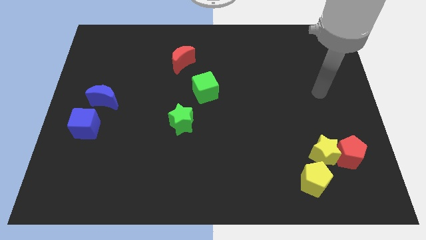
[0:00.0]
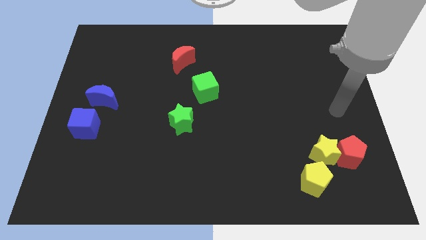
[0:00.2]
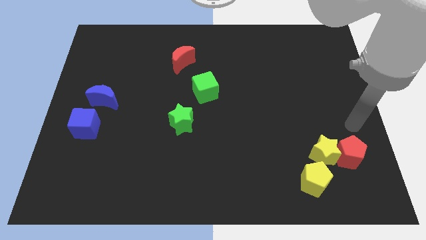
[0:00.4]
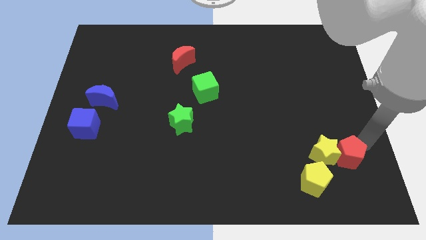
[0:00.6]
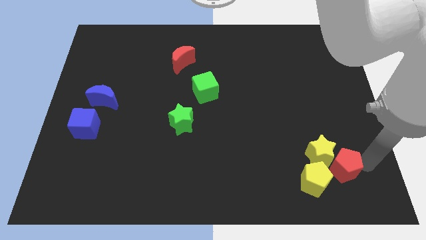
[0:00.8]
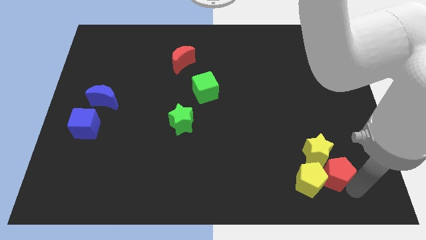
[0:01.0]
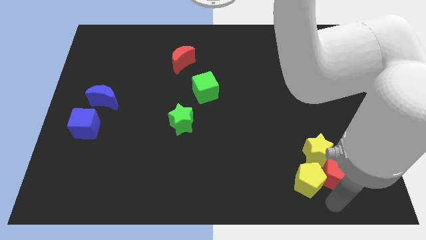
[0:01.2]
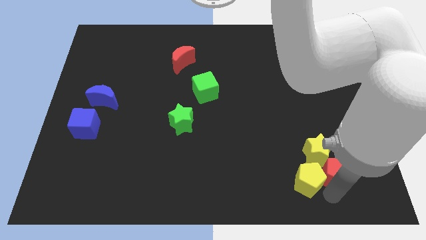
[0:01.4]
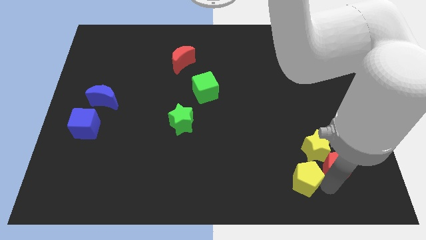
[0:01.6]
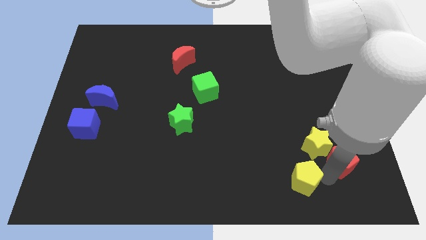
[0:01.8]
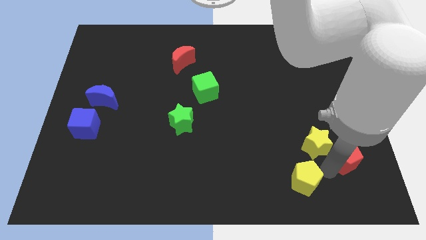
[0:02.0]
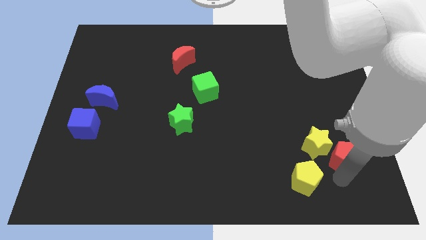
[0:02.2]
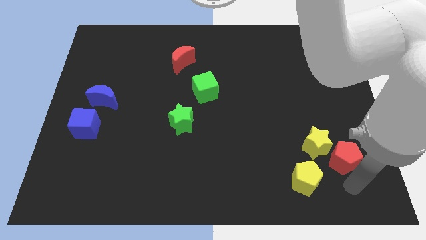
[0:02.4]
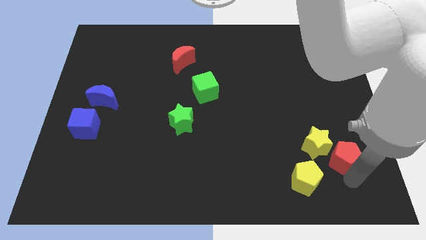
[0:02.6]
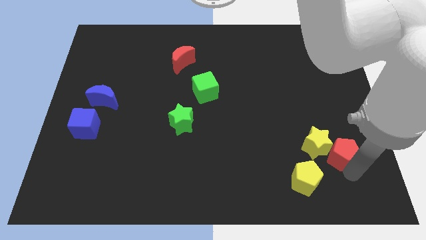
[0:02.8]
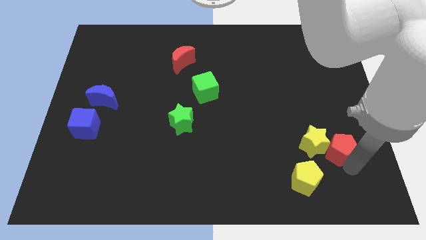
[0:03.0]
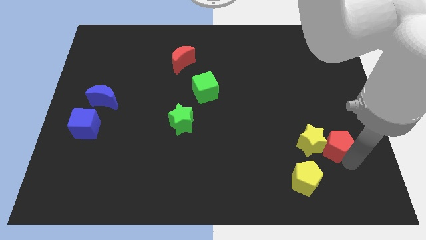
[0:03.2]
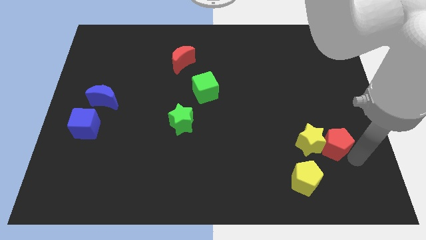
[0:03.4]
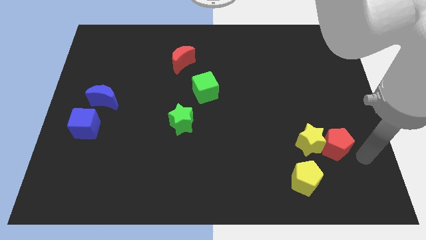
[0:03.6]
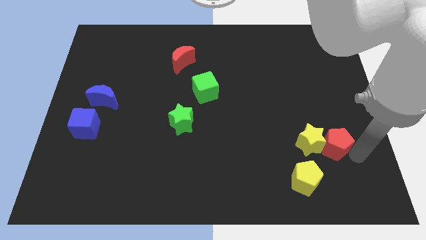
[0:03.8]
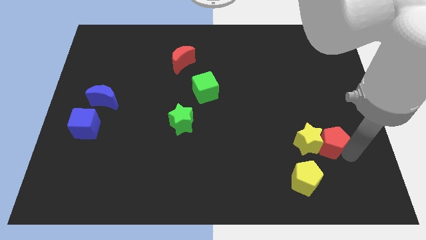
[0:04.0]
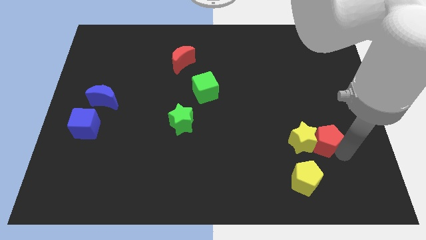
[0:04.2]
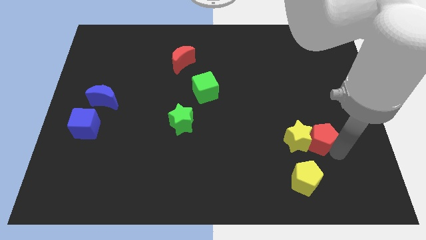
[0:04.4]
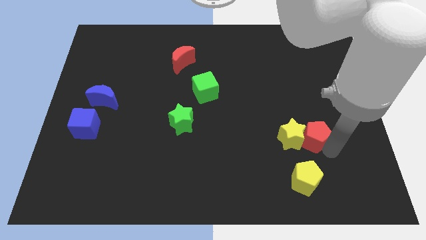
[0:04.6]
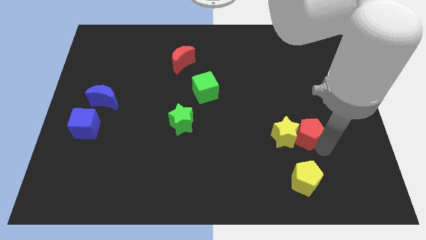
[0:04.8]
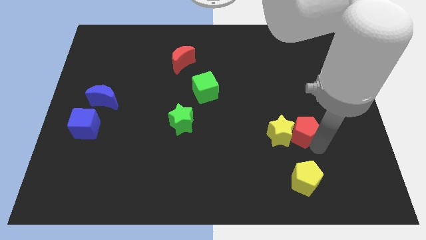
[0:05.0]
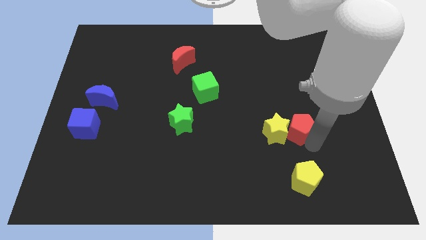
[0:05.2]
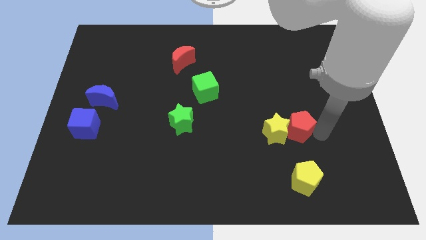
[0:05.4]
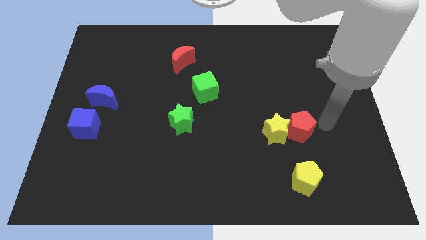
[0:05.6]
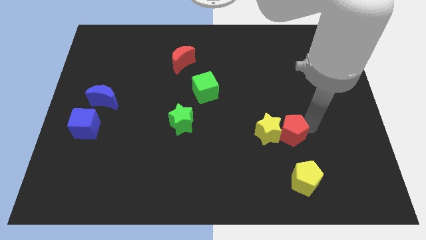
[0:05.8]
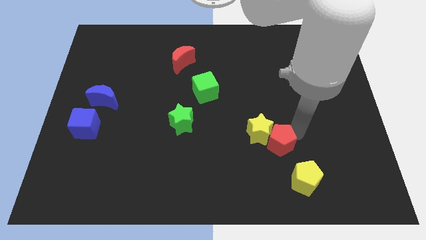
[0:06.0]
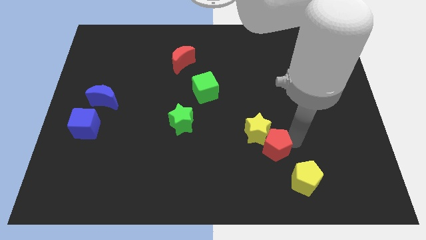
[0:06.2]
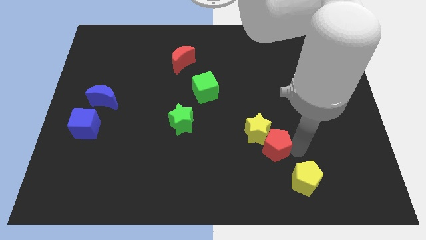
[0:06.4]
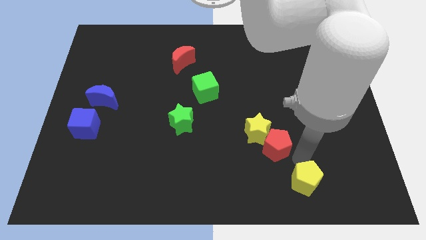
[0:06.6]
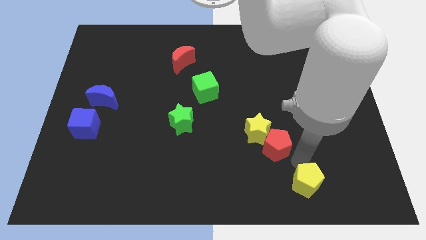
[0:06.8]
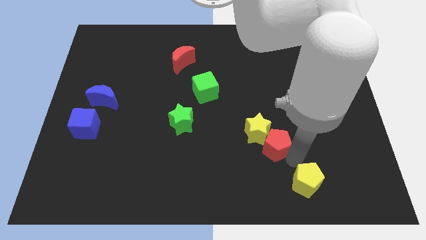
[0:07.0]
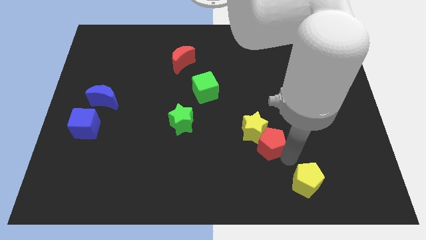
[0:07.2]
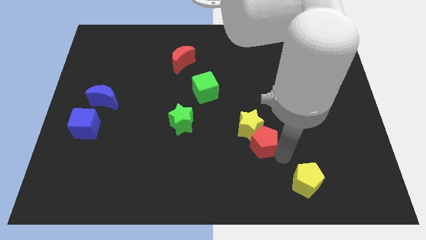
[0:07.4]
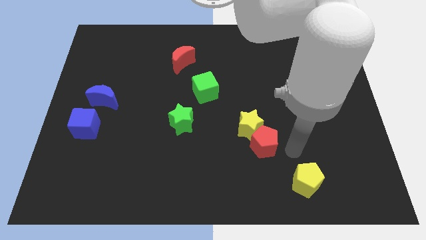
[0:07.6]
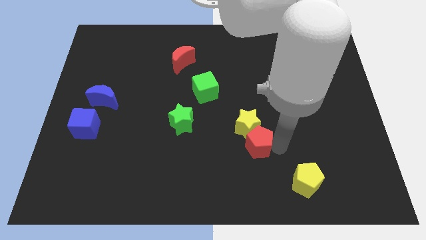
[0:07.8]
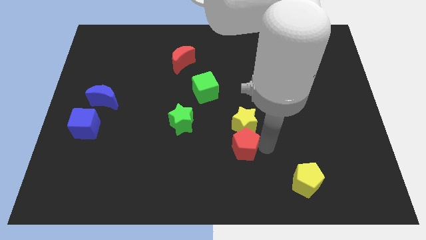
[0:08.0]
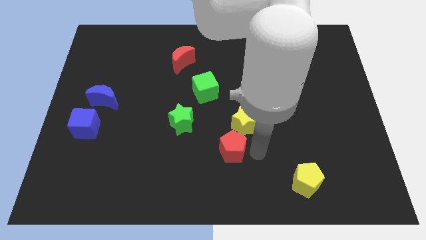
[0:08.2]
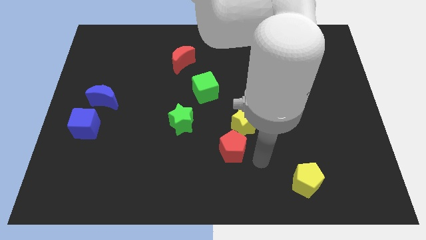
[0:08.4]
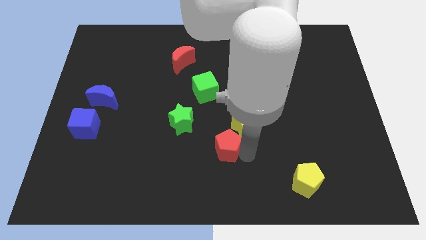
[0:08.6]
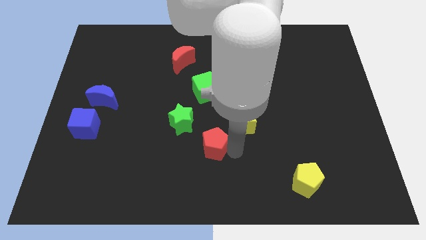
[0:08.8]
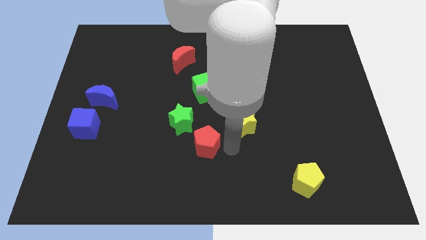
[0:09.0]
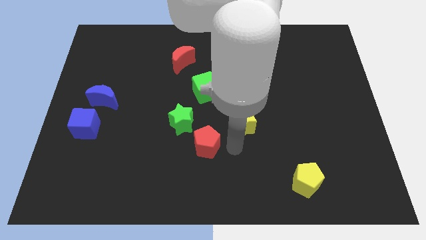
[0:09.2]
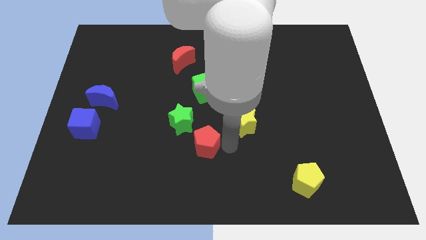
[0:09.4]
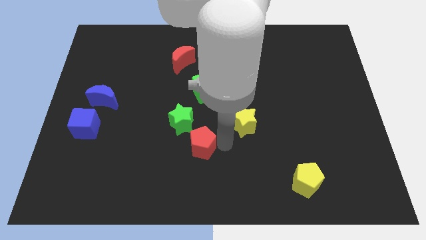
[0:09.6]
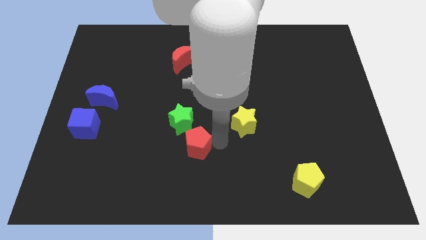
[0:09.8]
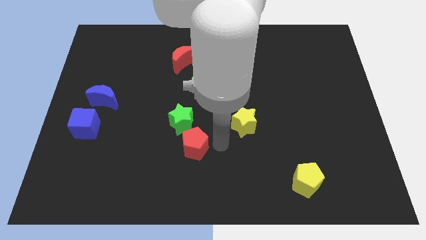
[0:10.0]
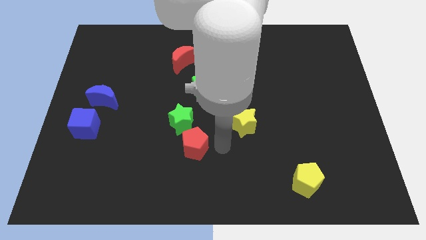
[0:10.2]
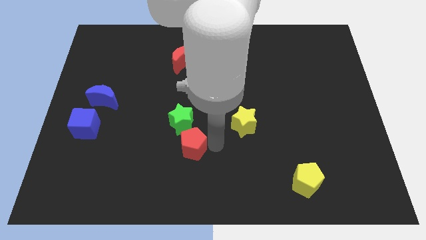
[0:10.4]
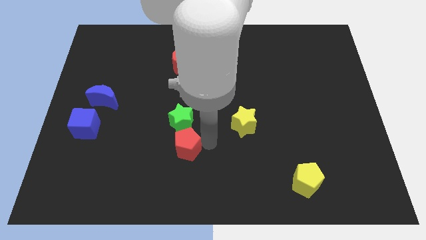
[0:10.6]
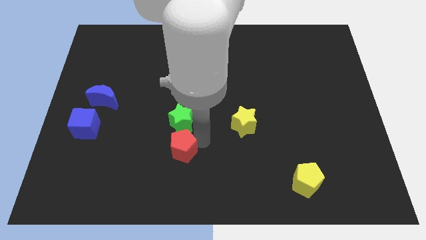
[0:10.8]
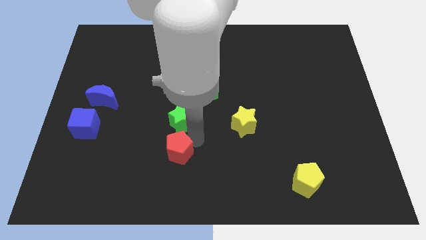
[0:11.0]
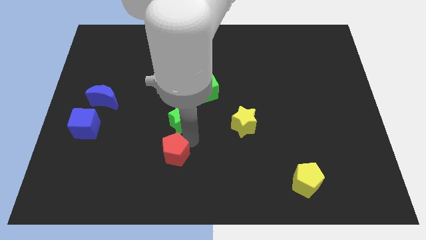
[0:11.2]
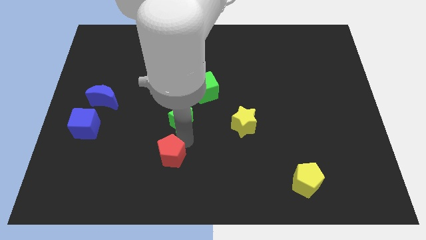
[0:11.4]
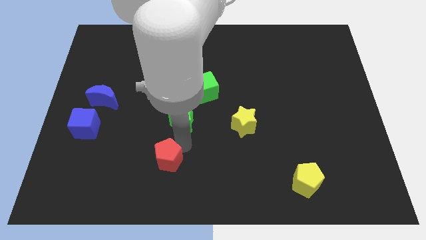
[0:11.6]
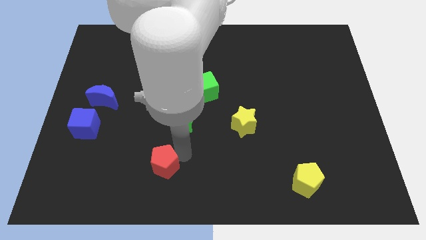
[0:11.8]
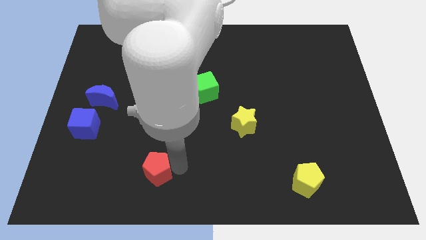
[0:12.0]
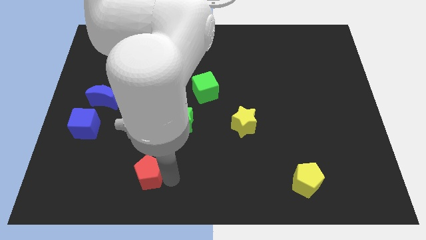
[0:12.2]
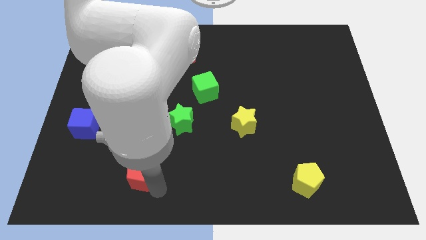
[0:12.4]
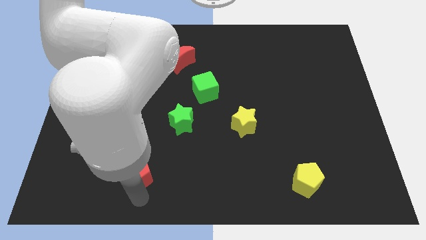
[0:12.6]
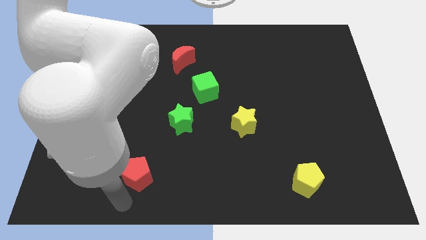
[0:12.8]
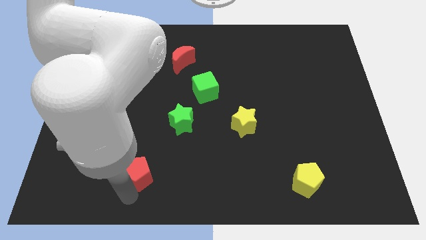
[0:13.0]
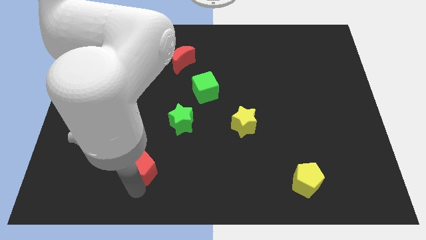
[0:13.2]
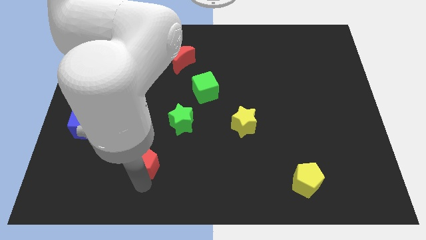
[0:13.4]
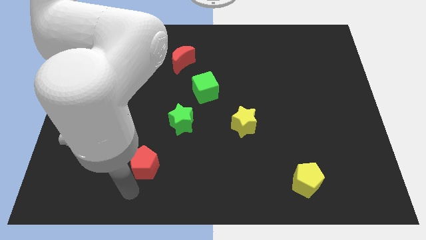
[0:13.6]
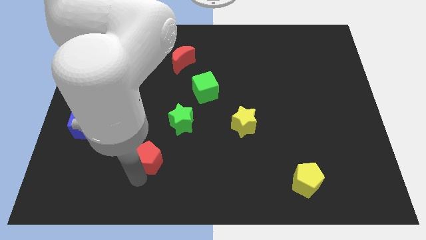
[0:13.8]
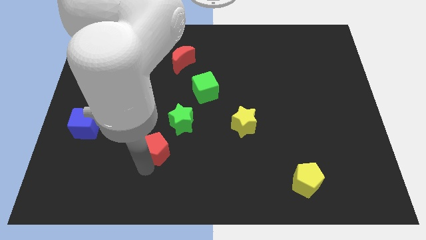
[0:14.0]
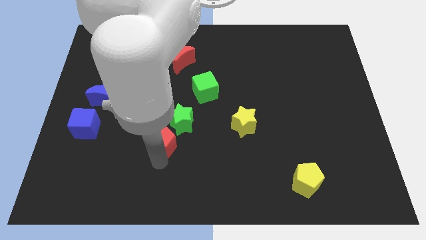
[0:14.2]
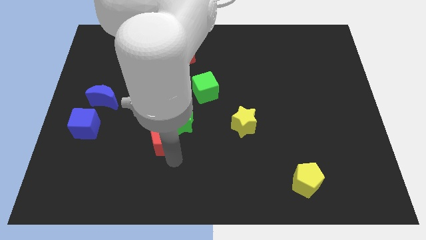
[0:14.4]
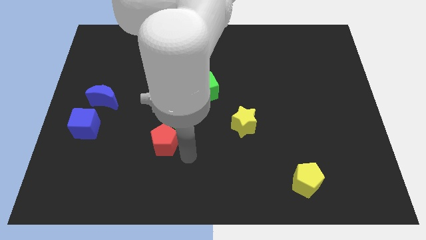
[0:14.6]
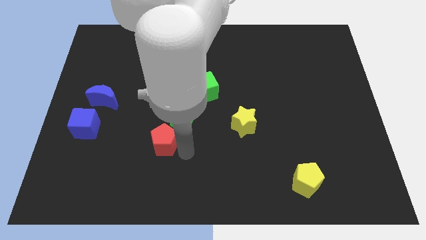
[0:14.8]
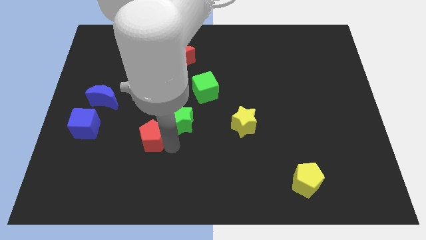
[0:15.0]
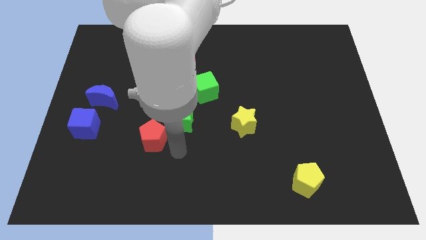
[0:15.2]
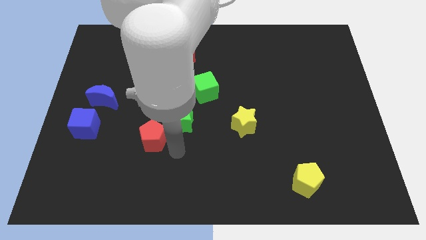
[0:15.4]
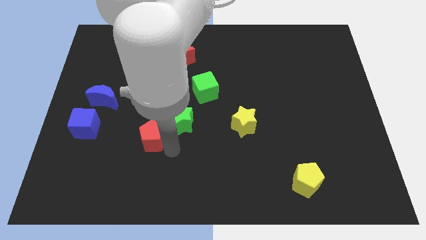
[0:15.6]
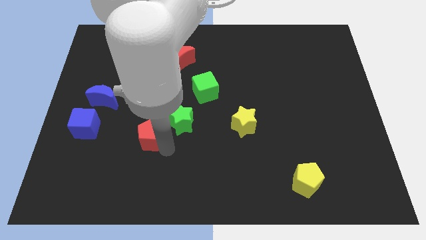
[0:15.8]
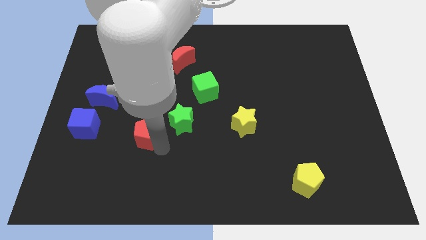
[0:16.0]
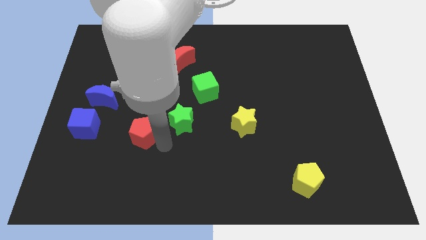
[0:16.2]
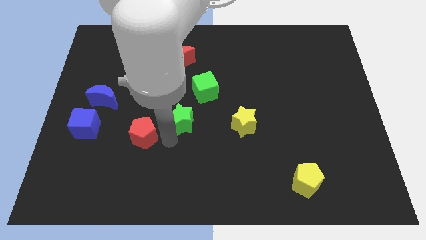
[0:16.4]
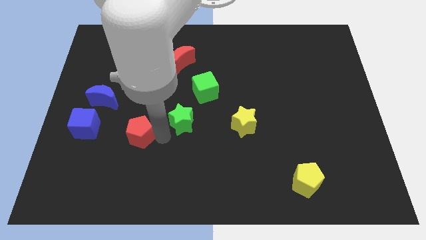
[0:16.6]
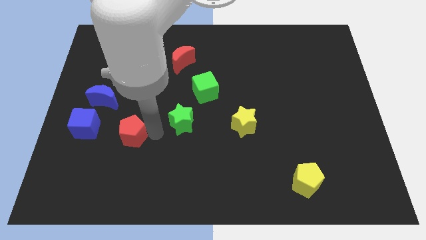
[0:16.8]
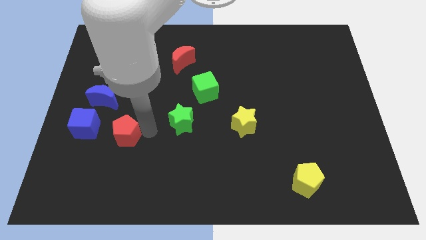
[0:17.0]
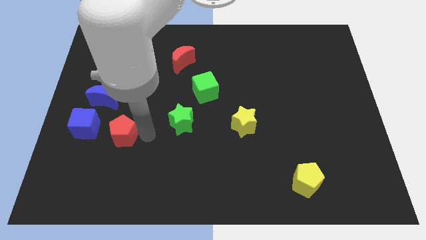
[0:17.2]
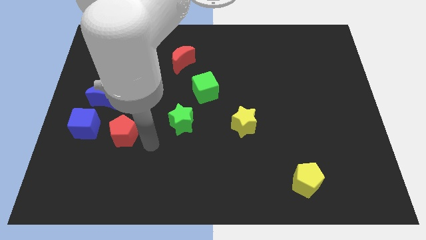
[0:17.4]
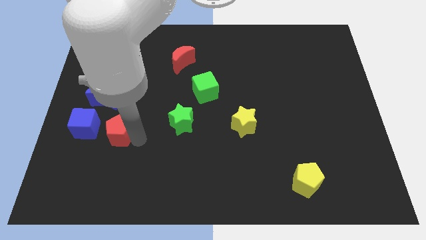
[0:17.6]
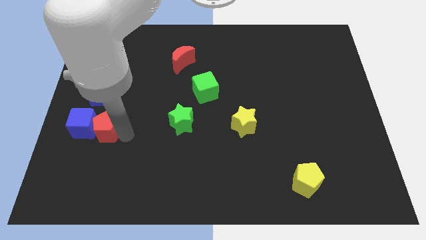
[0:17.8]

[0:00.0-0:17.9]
put the red pentagon to the blue cube
